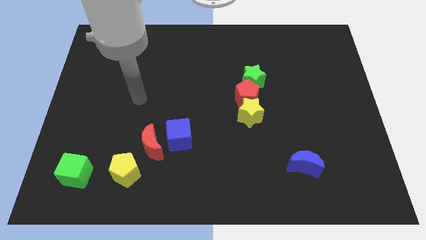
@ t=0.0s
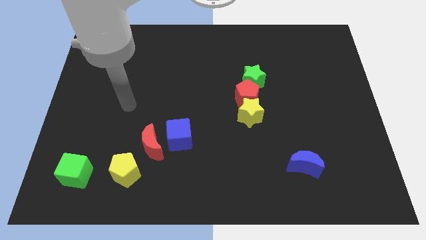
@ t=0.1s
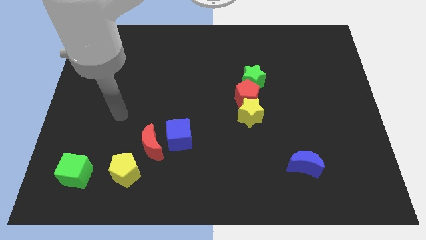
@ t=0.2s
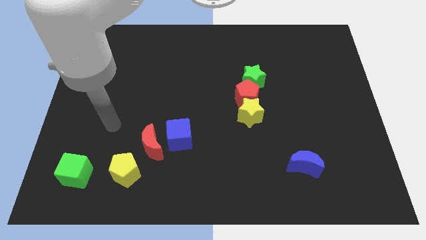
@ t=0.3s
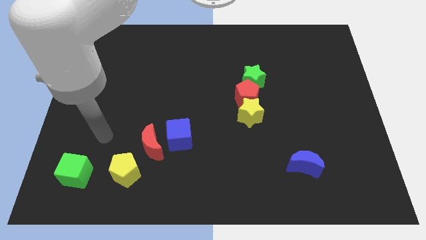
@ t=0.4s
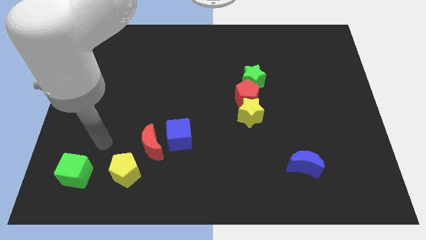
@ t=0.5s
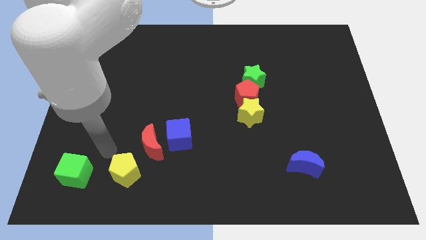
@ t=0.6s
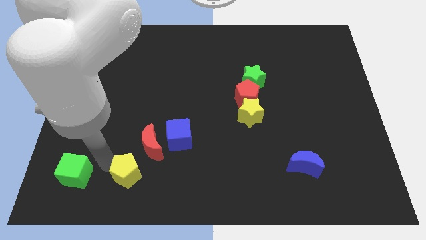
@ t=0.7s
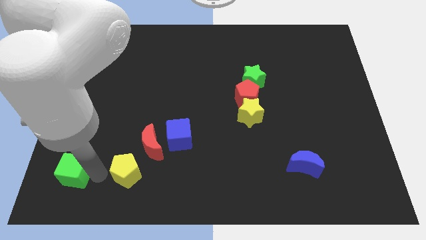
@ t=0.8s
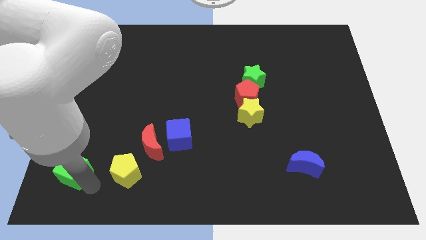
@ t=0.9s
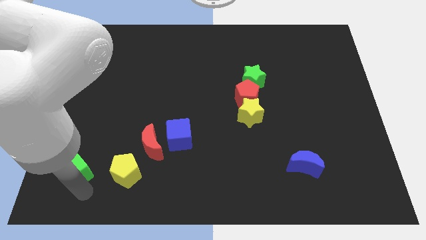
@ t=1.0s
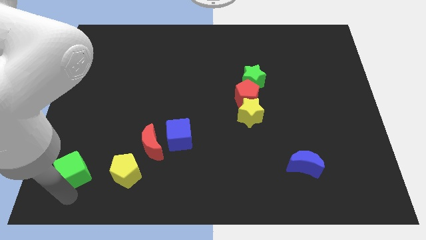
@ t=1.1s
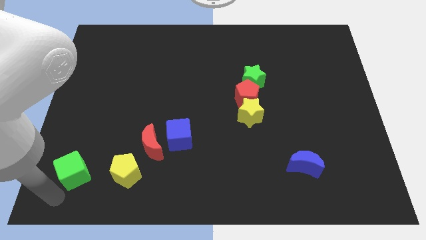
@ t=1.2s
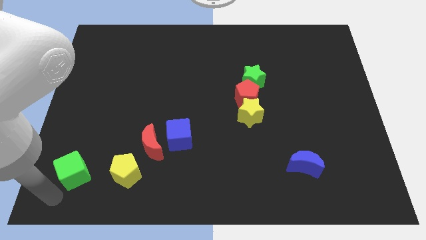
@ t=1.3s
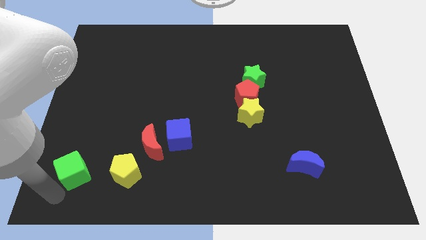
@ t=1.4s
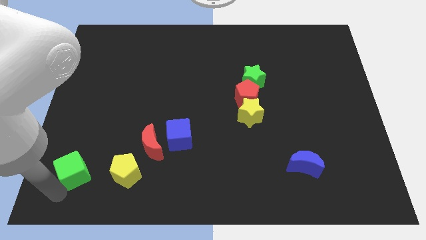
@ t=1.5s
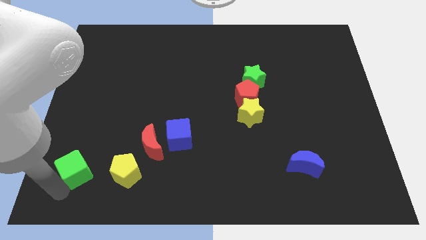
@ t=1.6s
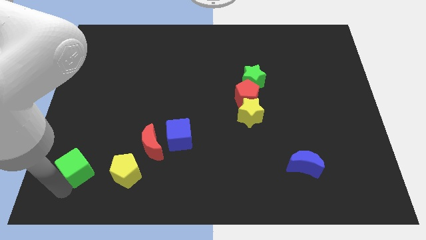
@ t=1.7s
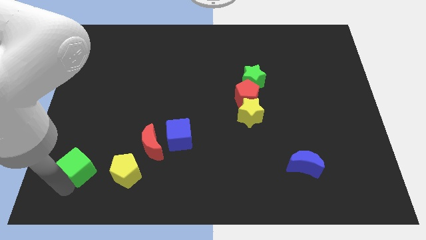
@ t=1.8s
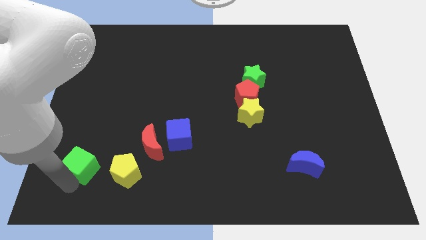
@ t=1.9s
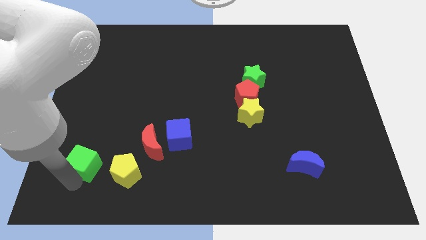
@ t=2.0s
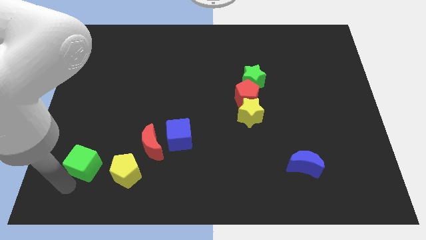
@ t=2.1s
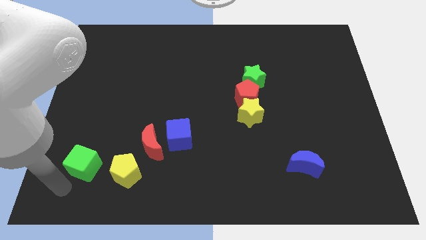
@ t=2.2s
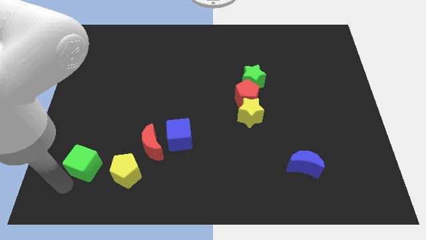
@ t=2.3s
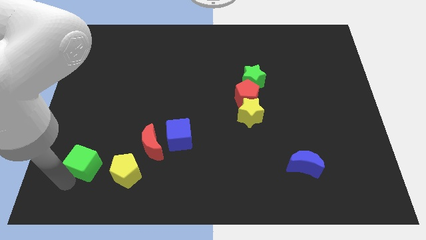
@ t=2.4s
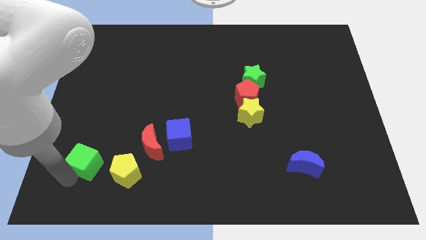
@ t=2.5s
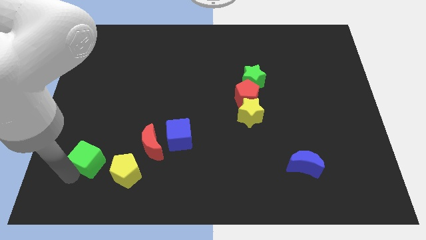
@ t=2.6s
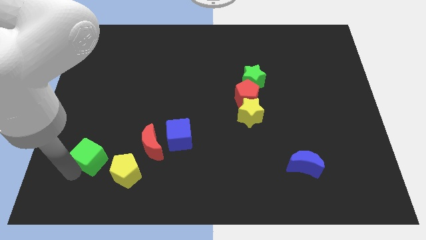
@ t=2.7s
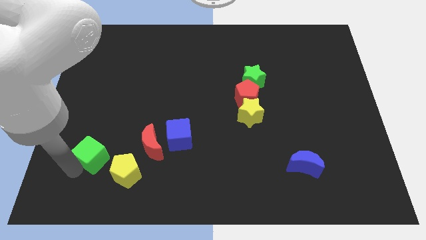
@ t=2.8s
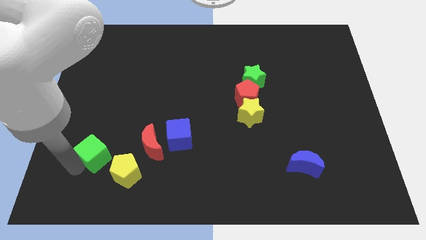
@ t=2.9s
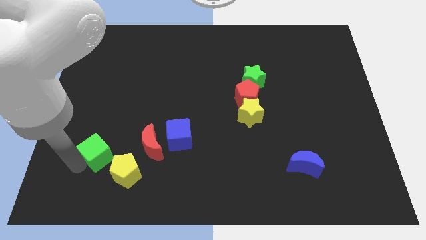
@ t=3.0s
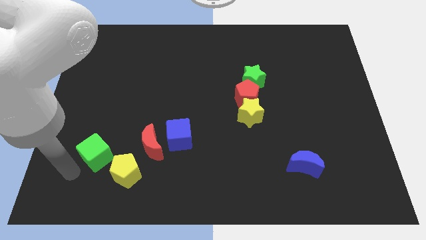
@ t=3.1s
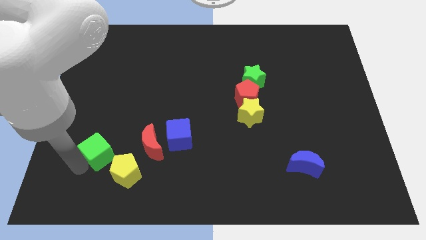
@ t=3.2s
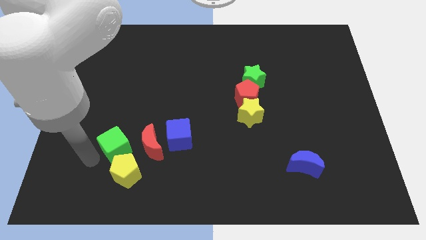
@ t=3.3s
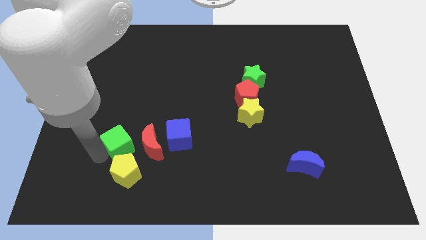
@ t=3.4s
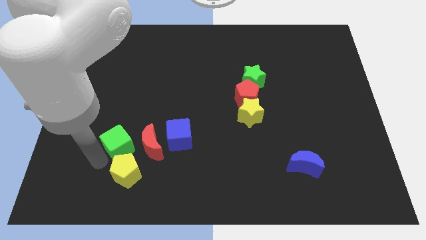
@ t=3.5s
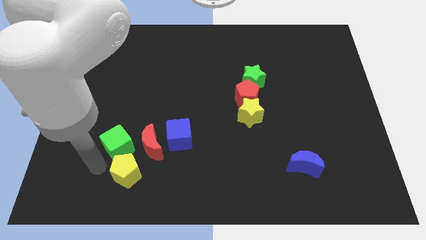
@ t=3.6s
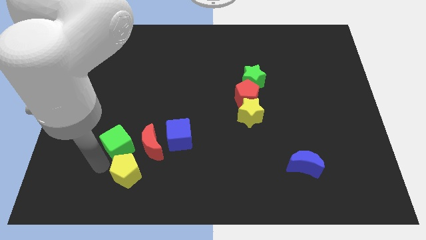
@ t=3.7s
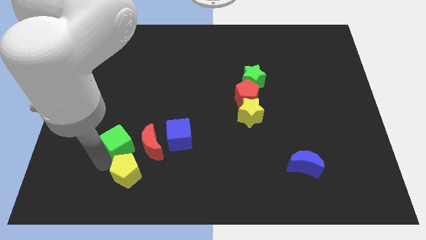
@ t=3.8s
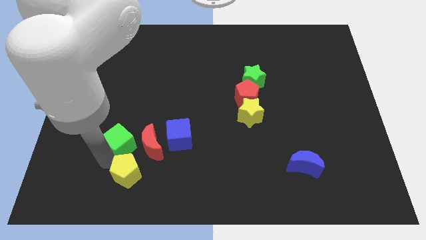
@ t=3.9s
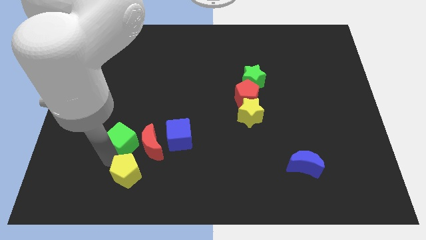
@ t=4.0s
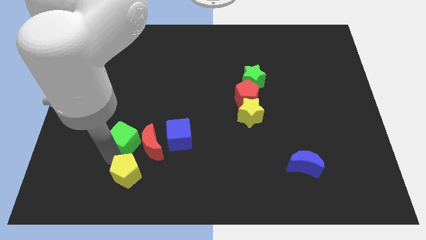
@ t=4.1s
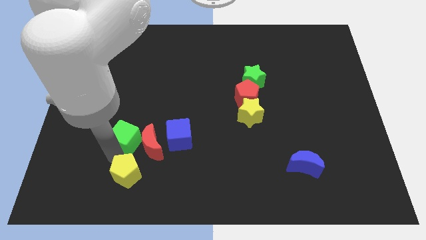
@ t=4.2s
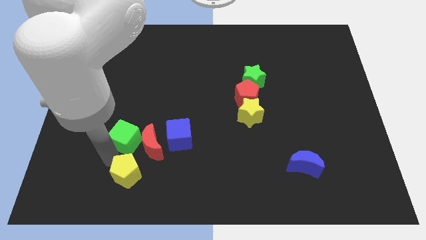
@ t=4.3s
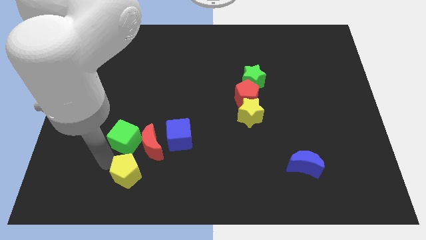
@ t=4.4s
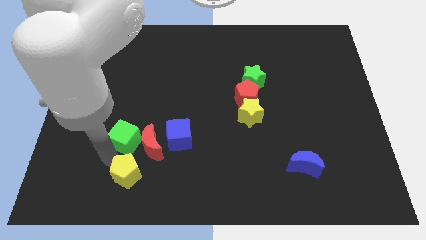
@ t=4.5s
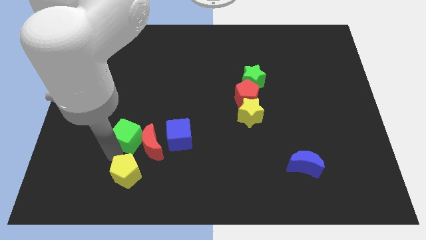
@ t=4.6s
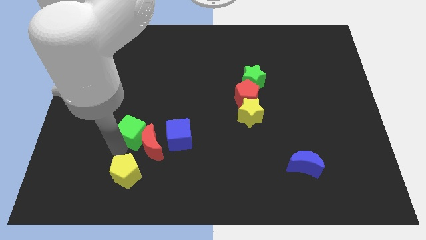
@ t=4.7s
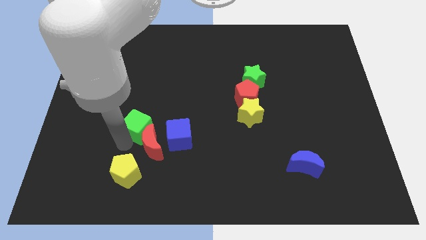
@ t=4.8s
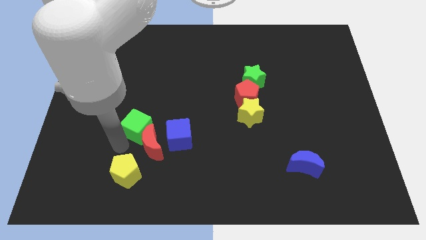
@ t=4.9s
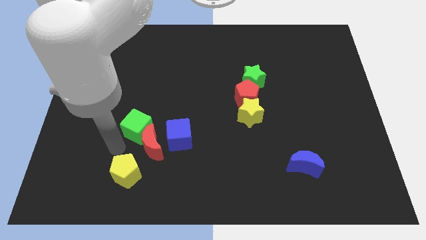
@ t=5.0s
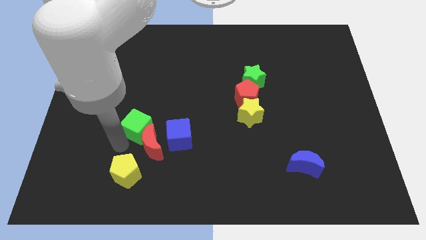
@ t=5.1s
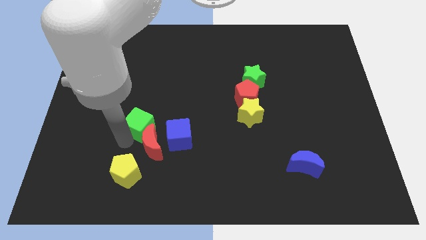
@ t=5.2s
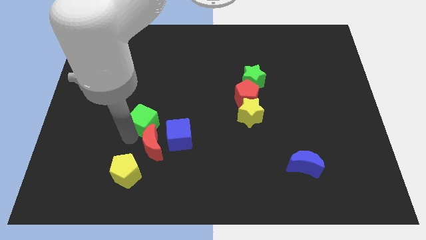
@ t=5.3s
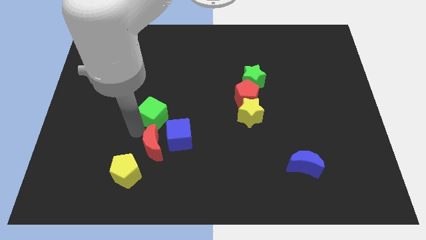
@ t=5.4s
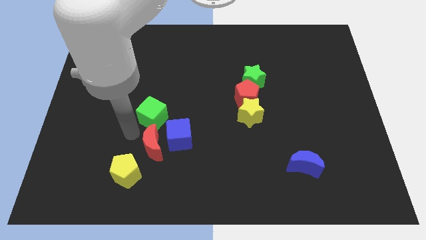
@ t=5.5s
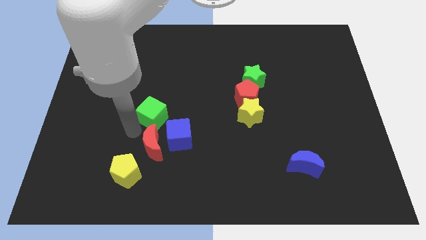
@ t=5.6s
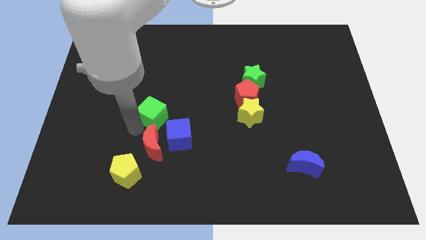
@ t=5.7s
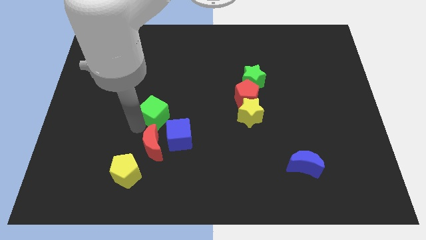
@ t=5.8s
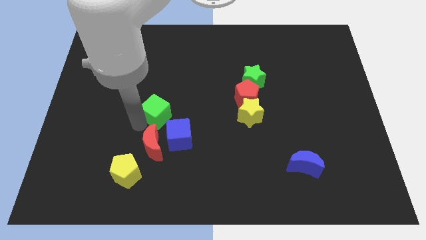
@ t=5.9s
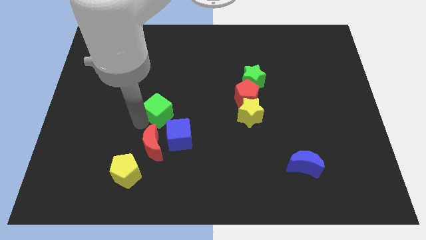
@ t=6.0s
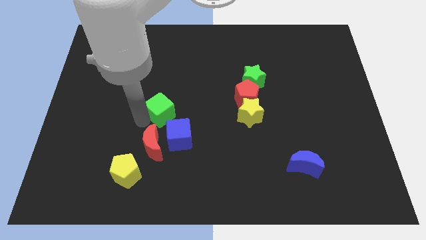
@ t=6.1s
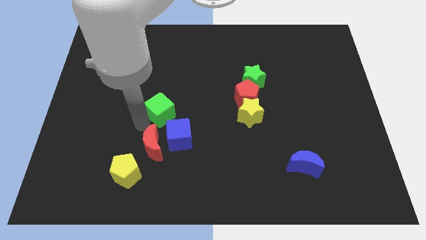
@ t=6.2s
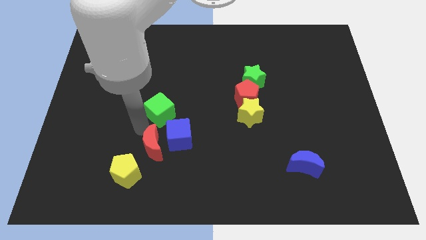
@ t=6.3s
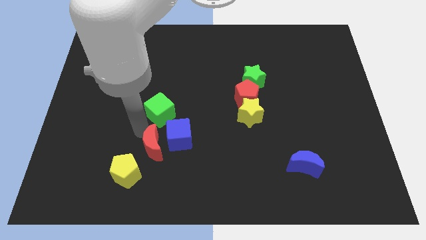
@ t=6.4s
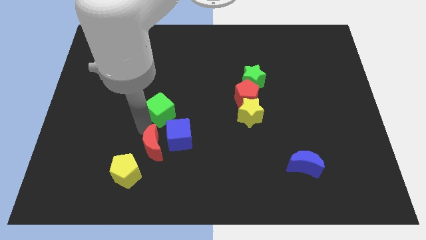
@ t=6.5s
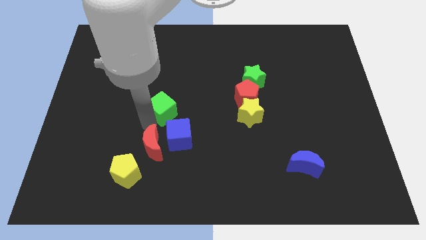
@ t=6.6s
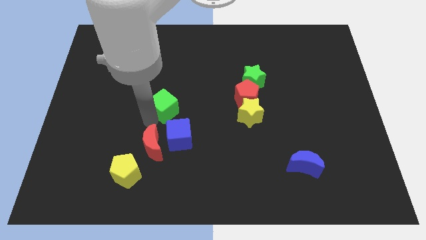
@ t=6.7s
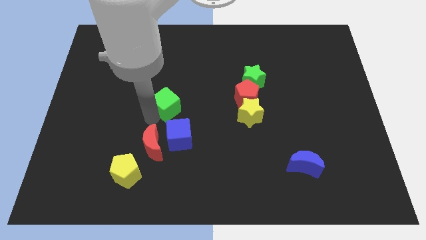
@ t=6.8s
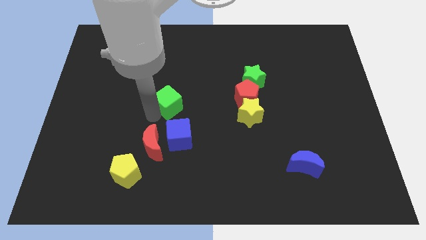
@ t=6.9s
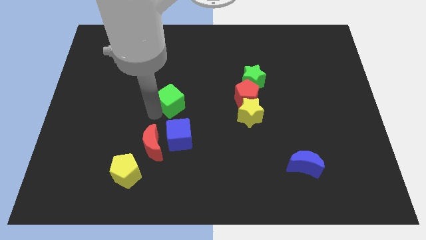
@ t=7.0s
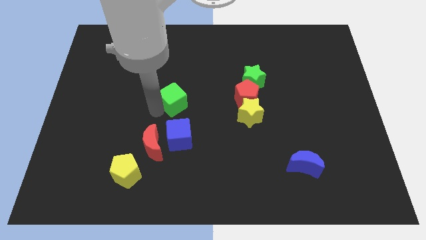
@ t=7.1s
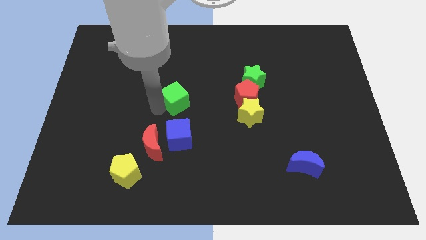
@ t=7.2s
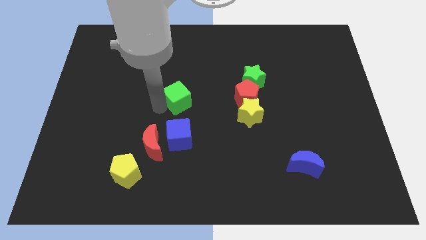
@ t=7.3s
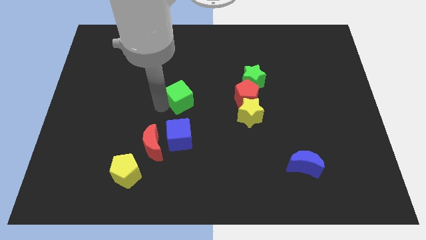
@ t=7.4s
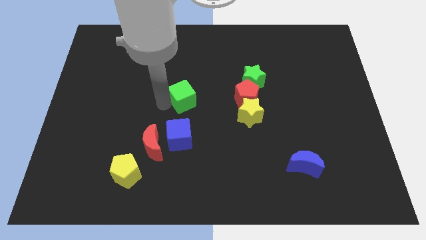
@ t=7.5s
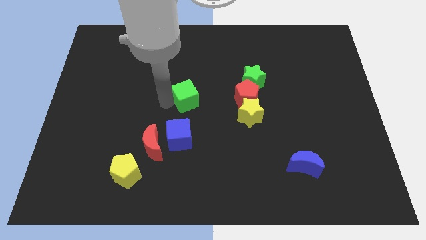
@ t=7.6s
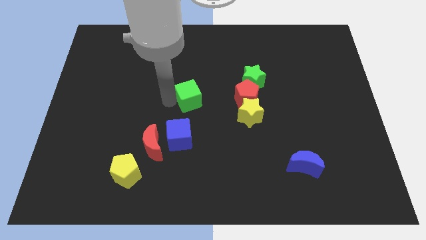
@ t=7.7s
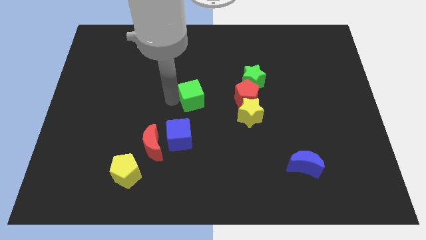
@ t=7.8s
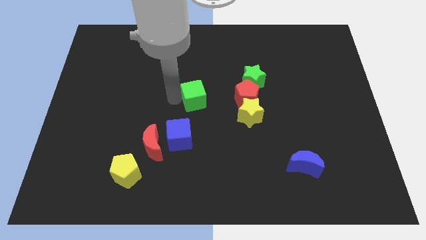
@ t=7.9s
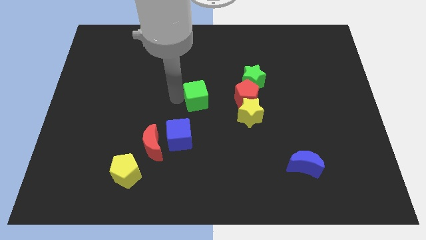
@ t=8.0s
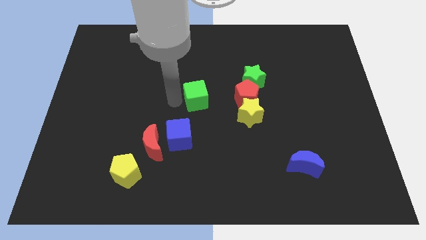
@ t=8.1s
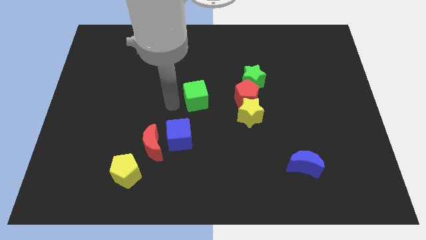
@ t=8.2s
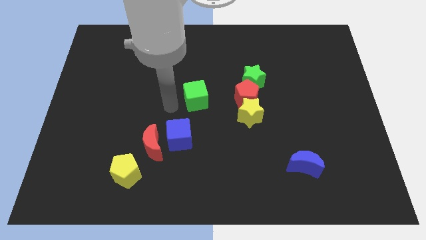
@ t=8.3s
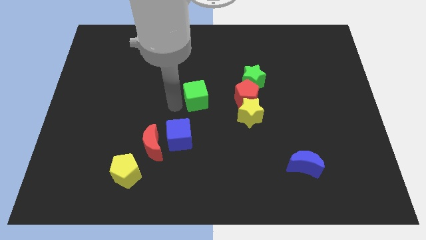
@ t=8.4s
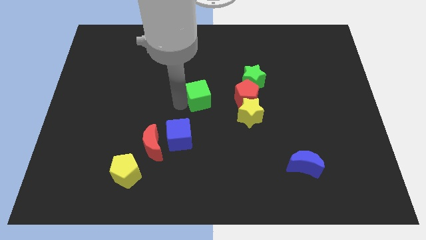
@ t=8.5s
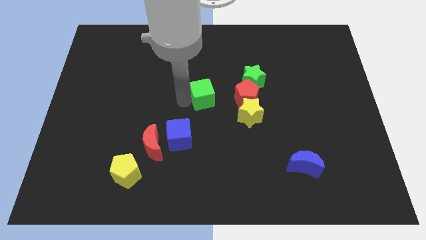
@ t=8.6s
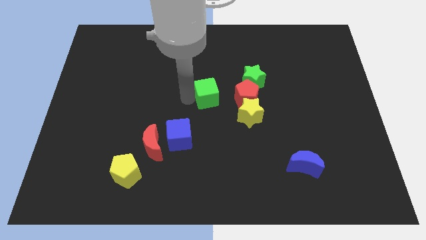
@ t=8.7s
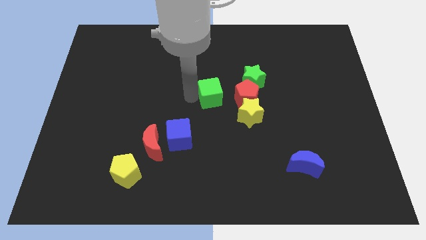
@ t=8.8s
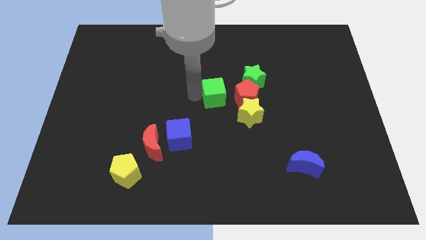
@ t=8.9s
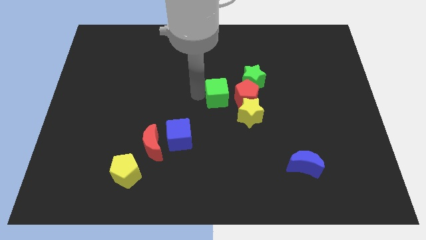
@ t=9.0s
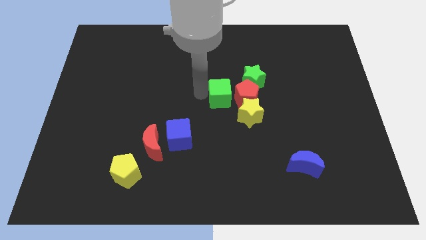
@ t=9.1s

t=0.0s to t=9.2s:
put the green cube towards the red pentagon
